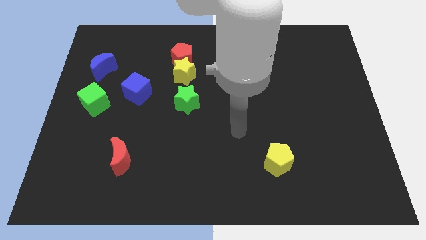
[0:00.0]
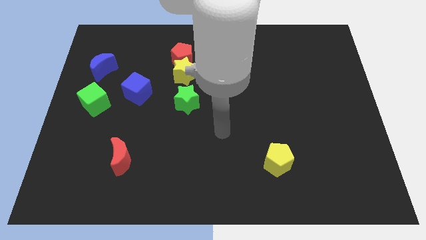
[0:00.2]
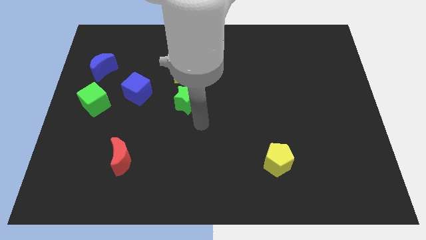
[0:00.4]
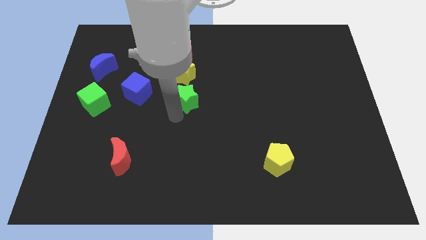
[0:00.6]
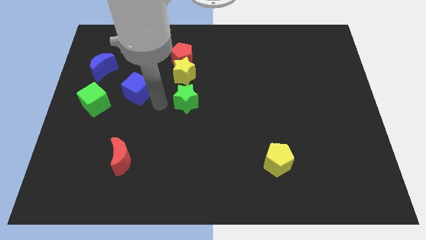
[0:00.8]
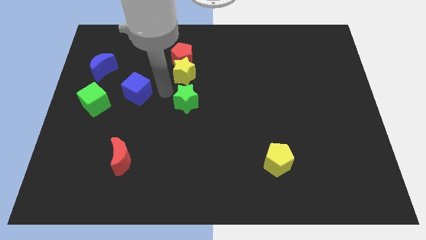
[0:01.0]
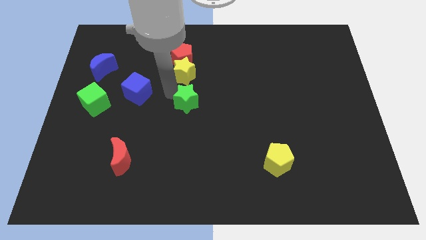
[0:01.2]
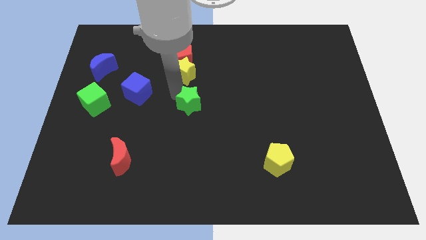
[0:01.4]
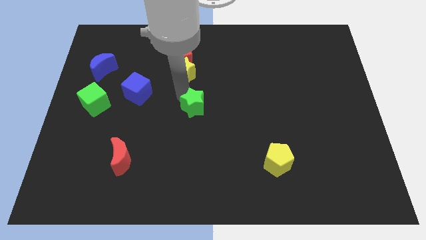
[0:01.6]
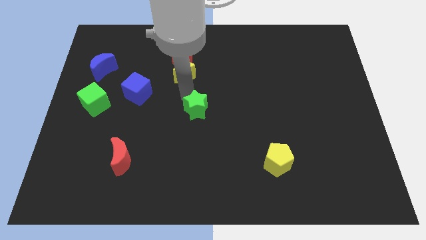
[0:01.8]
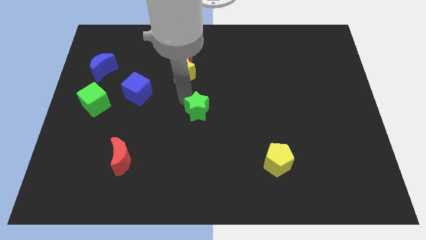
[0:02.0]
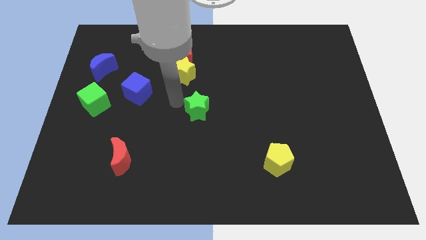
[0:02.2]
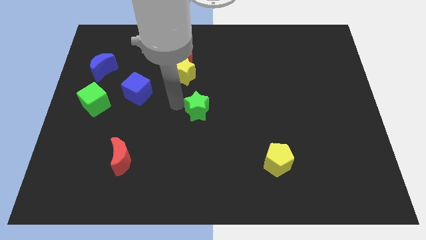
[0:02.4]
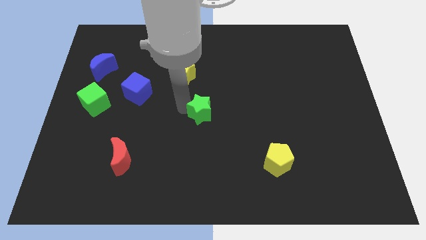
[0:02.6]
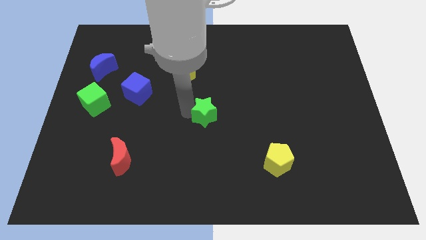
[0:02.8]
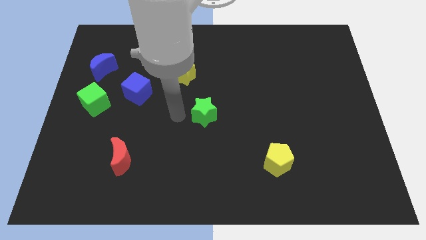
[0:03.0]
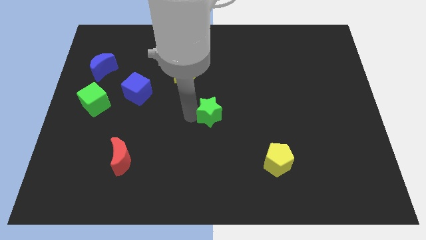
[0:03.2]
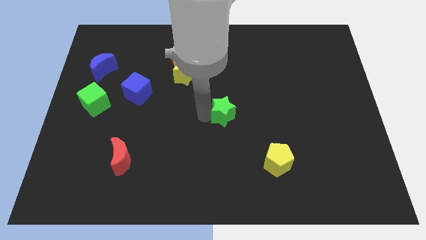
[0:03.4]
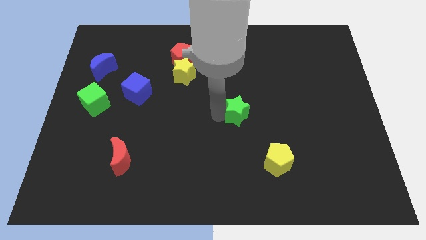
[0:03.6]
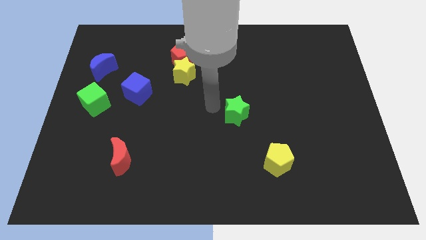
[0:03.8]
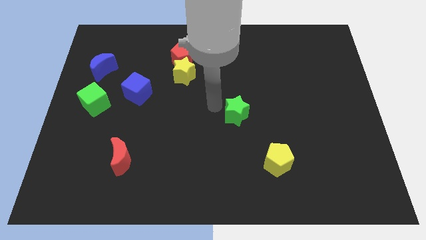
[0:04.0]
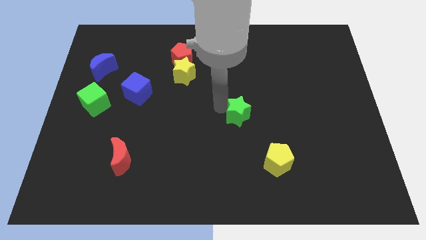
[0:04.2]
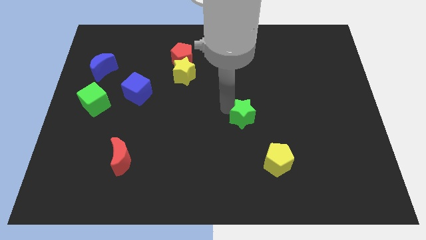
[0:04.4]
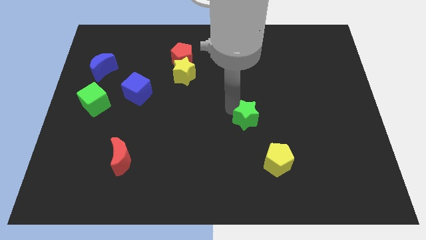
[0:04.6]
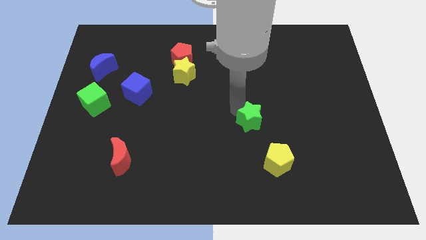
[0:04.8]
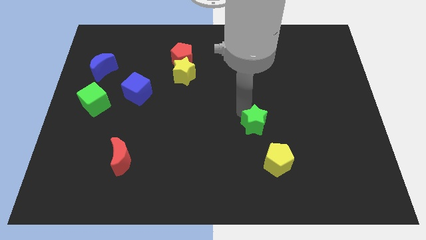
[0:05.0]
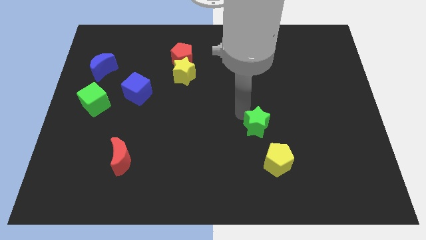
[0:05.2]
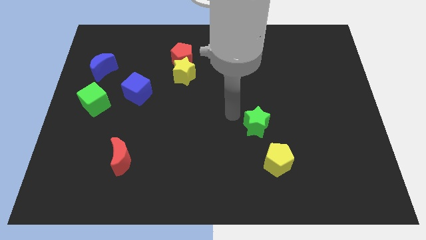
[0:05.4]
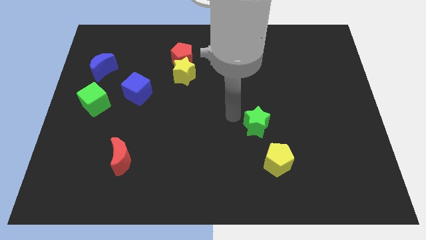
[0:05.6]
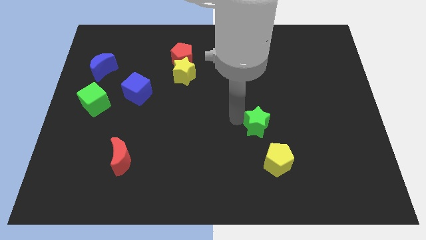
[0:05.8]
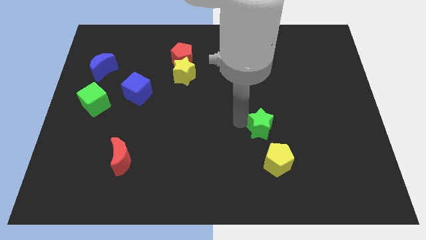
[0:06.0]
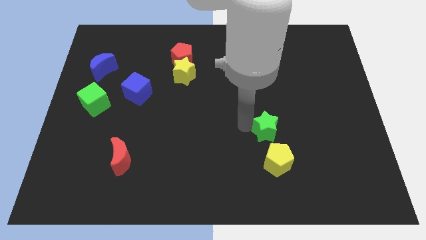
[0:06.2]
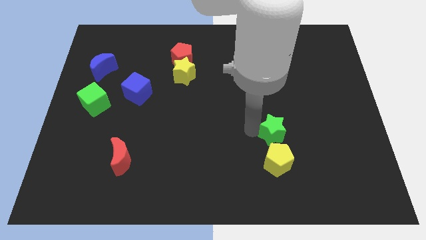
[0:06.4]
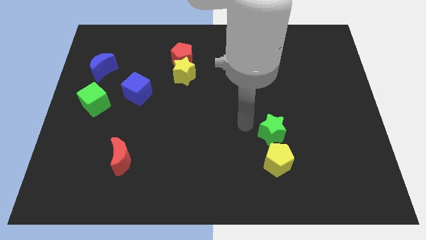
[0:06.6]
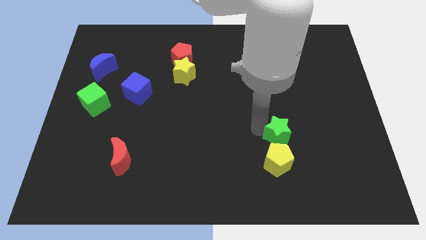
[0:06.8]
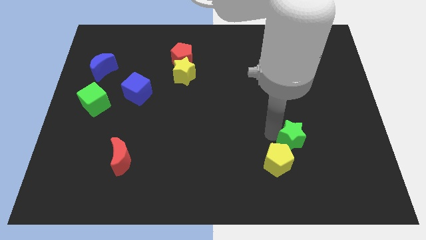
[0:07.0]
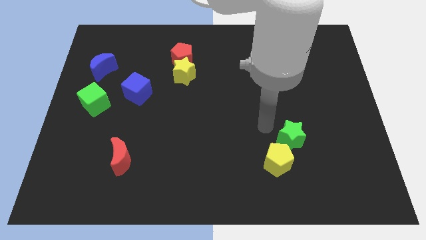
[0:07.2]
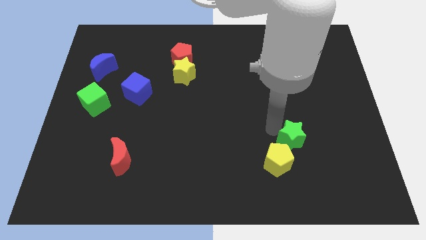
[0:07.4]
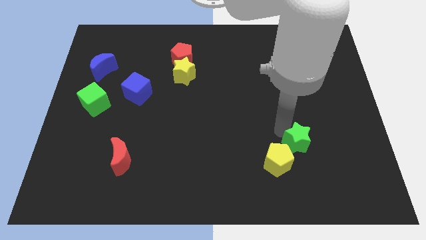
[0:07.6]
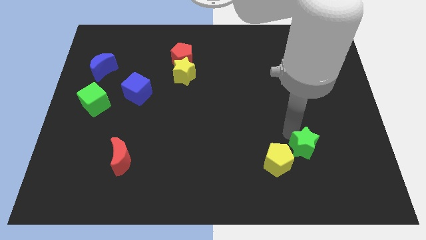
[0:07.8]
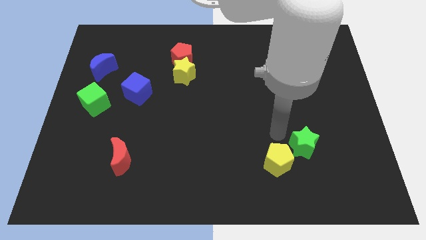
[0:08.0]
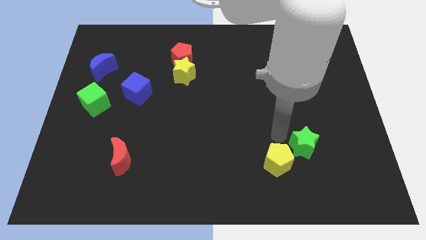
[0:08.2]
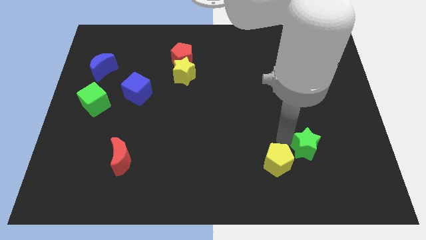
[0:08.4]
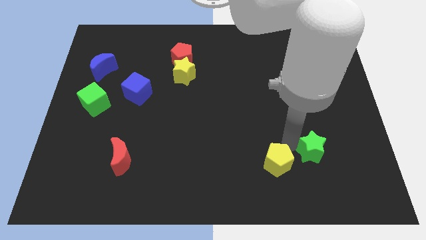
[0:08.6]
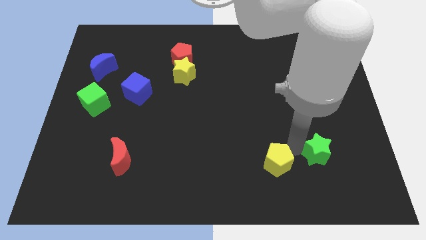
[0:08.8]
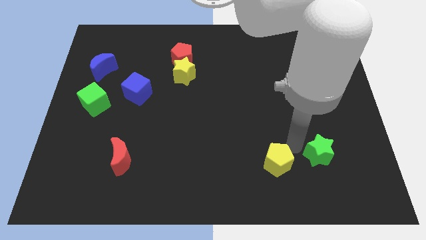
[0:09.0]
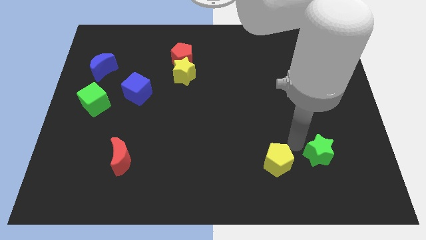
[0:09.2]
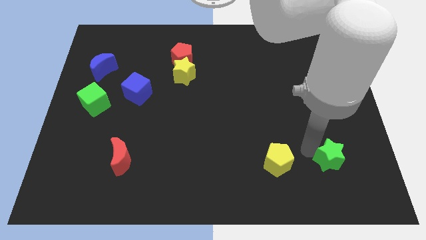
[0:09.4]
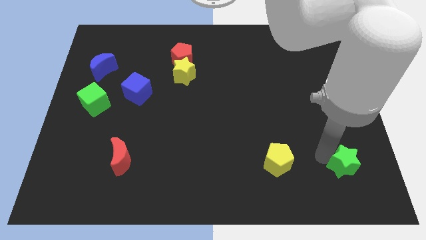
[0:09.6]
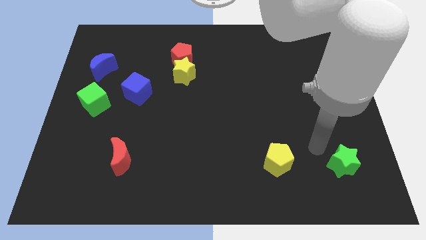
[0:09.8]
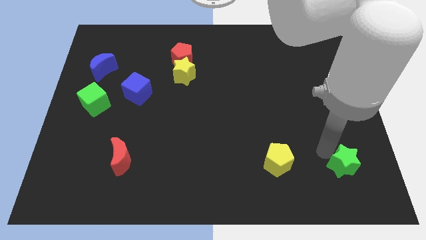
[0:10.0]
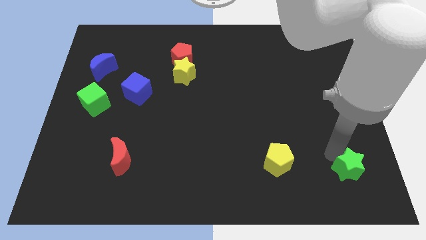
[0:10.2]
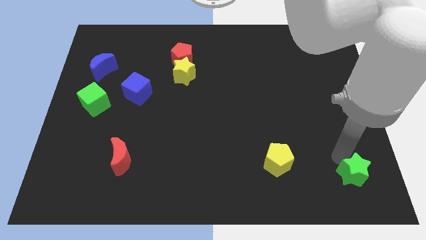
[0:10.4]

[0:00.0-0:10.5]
move the green star to the bottom right corner

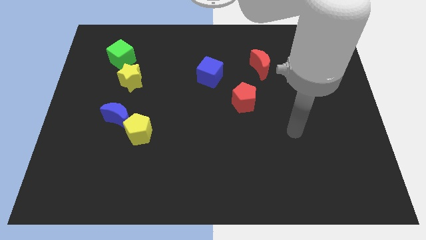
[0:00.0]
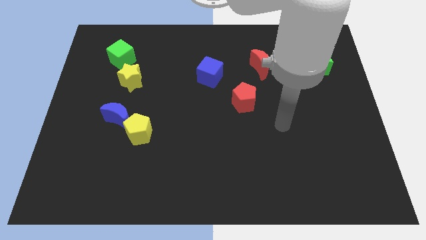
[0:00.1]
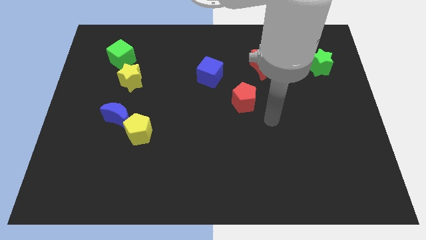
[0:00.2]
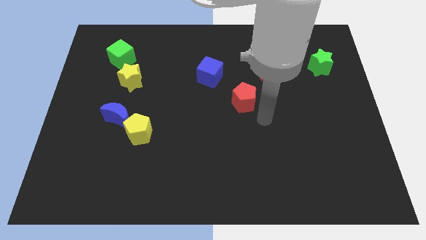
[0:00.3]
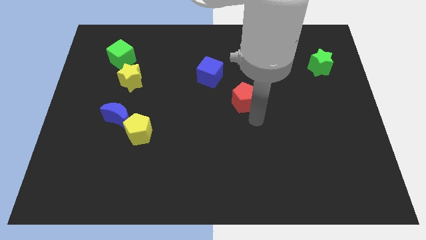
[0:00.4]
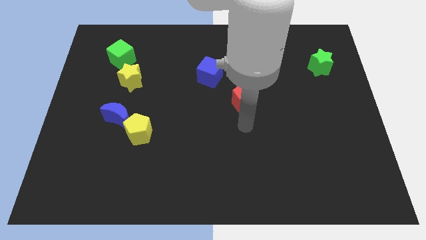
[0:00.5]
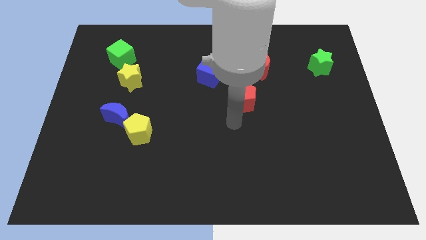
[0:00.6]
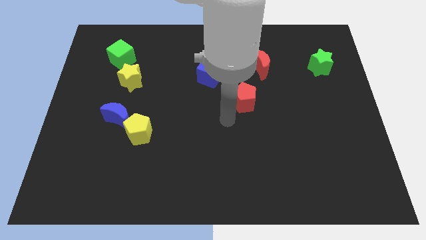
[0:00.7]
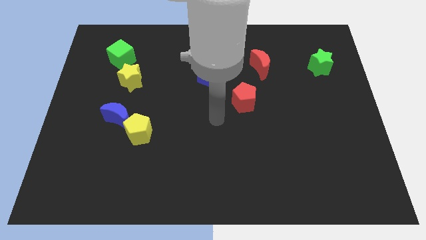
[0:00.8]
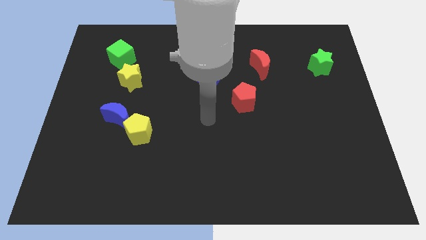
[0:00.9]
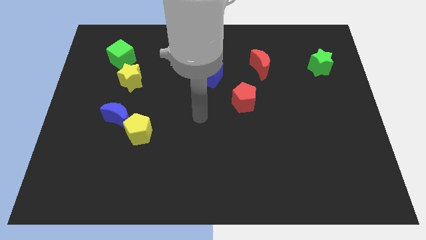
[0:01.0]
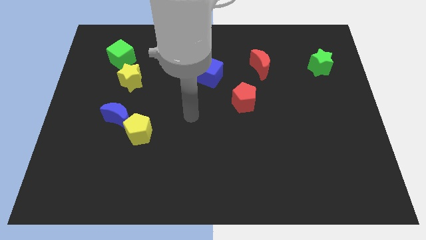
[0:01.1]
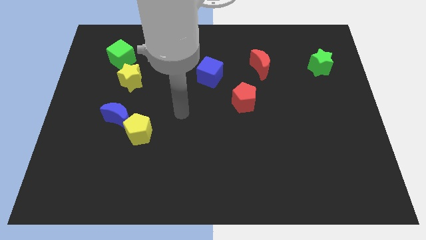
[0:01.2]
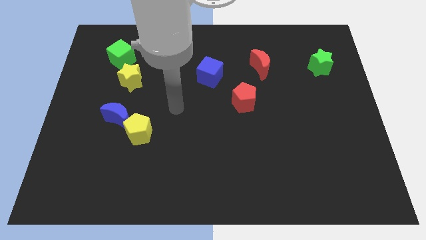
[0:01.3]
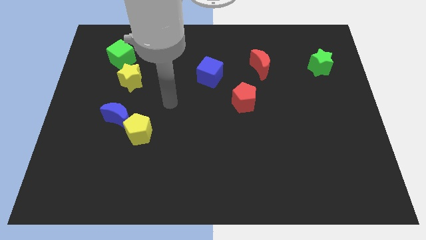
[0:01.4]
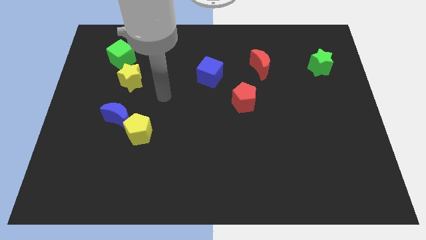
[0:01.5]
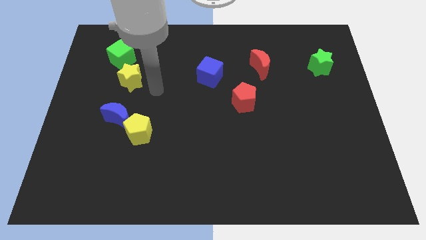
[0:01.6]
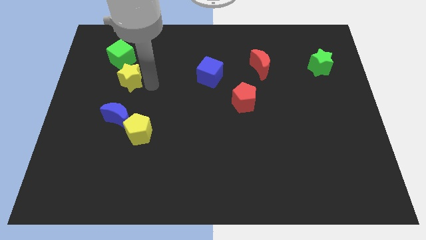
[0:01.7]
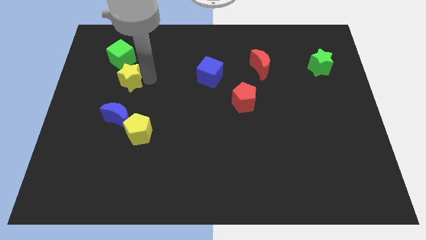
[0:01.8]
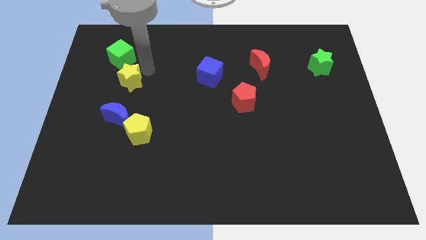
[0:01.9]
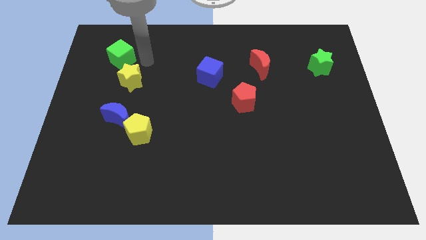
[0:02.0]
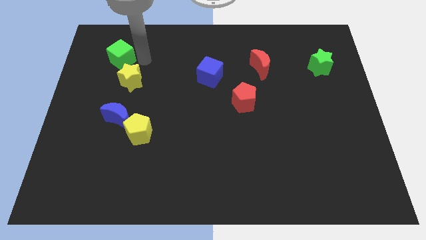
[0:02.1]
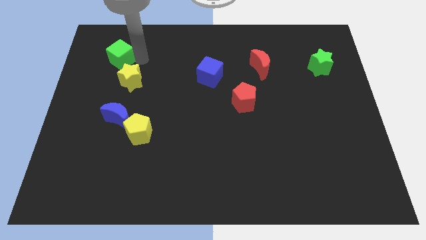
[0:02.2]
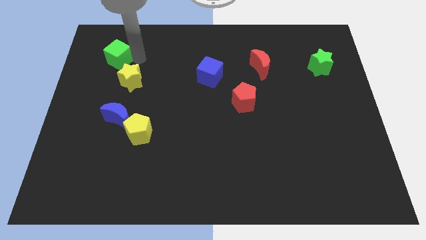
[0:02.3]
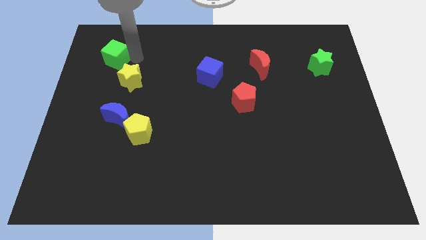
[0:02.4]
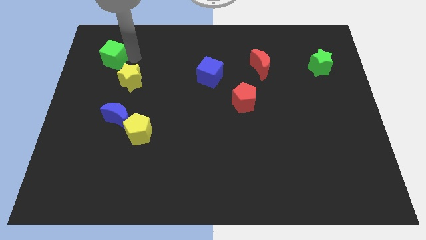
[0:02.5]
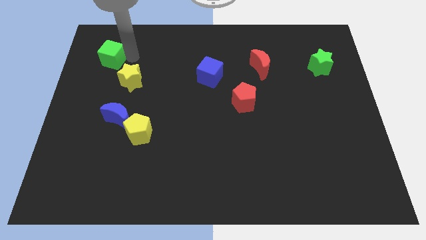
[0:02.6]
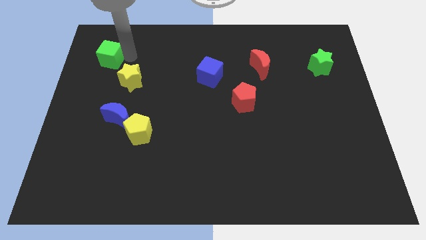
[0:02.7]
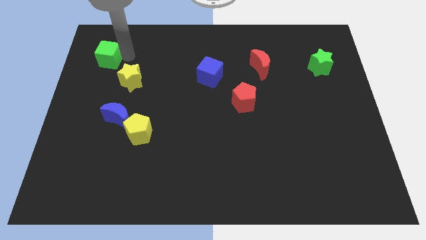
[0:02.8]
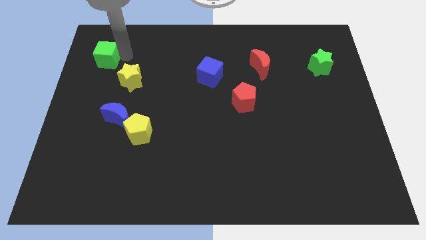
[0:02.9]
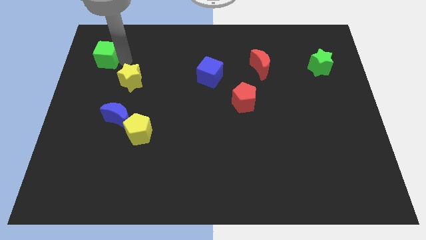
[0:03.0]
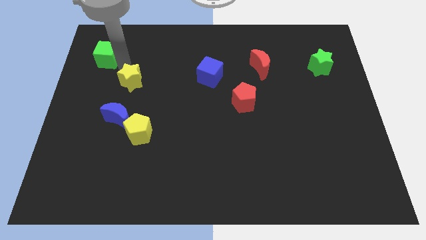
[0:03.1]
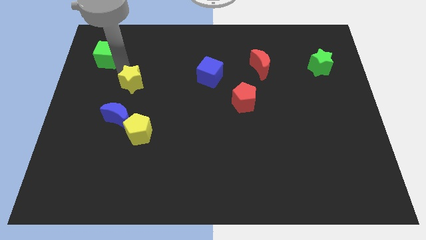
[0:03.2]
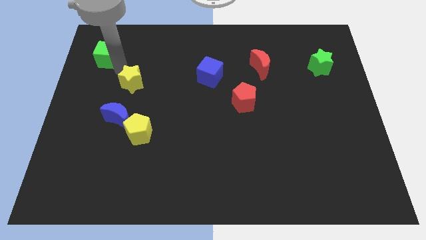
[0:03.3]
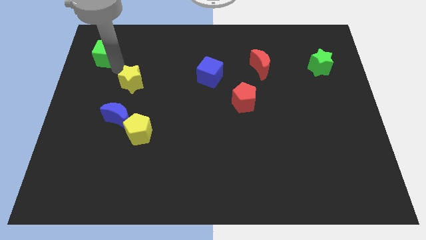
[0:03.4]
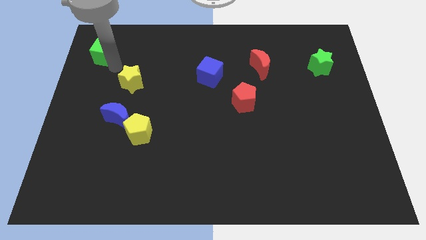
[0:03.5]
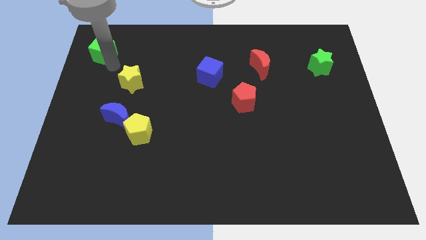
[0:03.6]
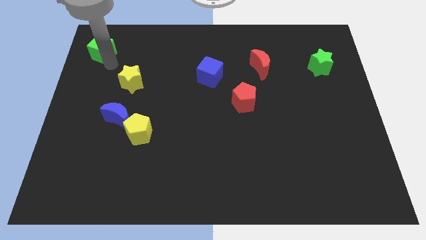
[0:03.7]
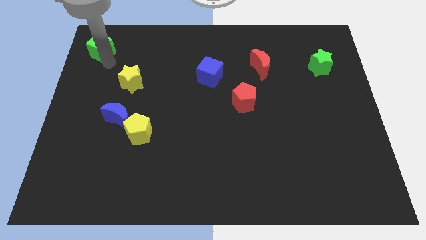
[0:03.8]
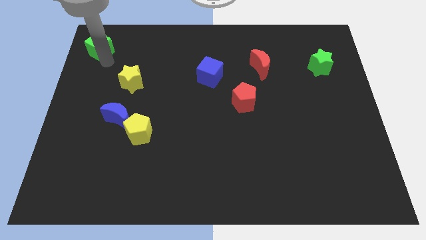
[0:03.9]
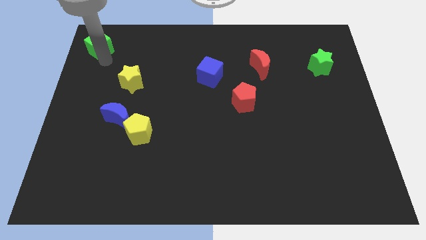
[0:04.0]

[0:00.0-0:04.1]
push the green cube to the top left
